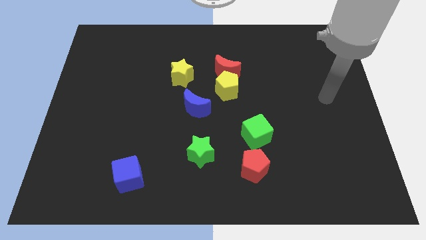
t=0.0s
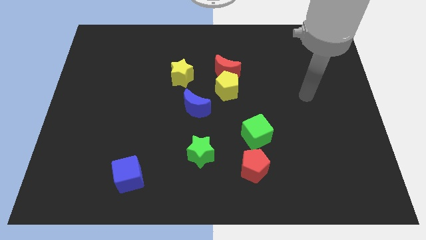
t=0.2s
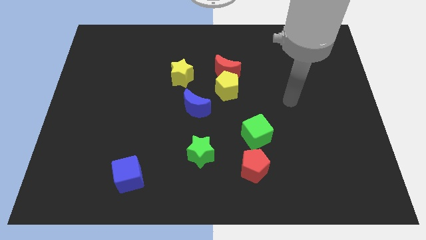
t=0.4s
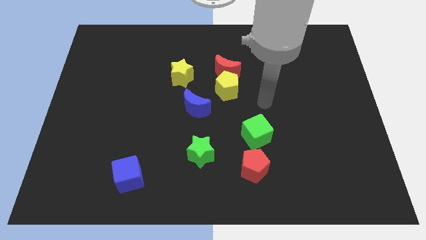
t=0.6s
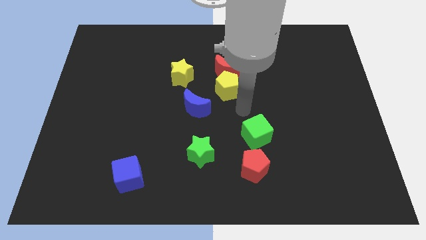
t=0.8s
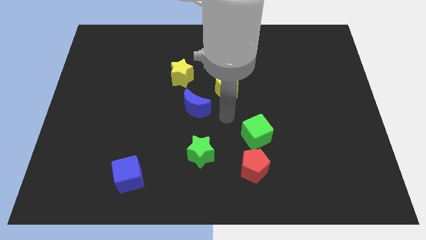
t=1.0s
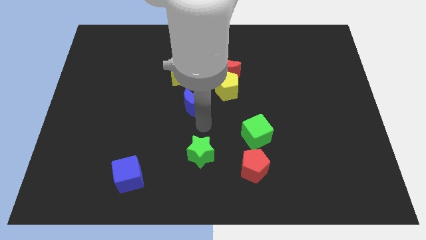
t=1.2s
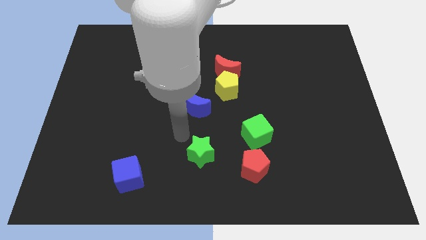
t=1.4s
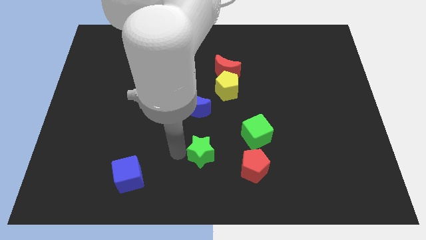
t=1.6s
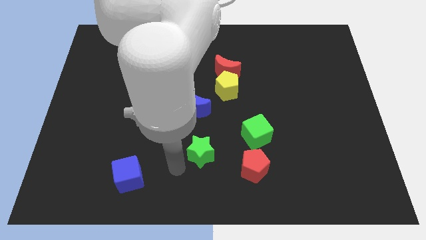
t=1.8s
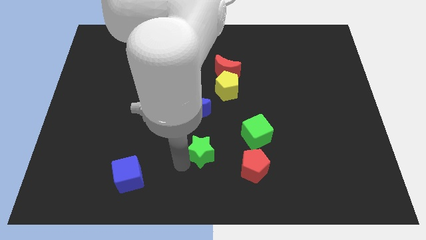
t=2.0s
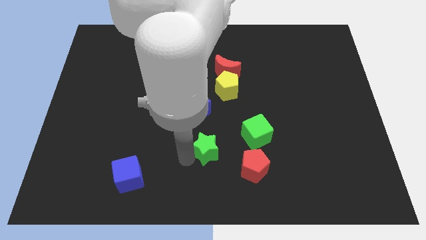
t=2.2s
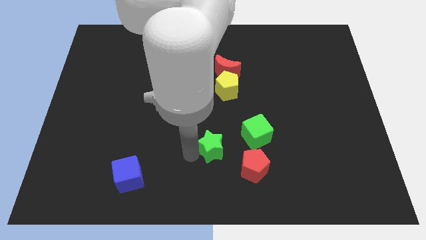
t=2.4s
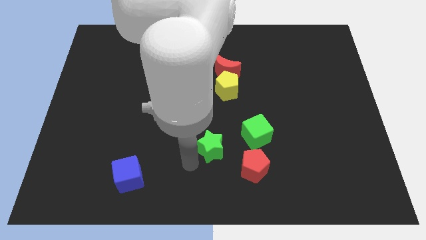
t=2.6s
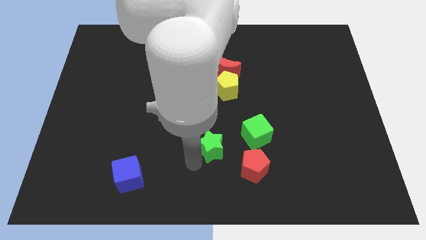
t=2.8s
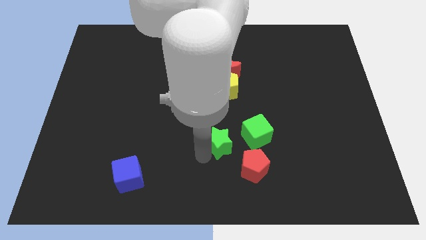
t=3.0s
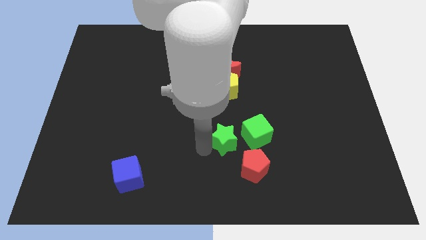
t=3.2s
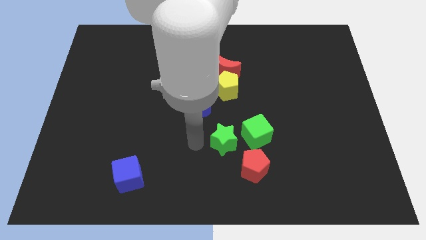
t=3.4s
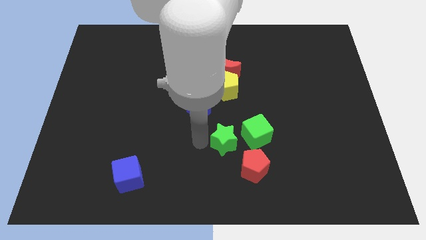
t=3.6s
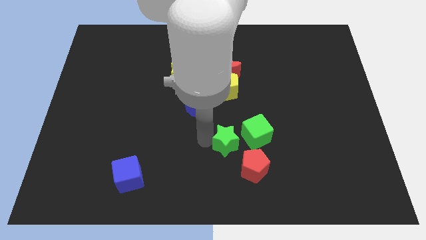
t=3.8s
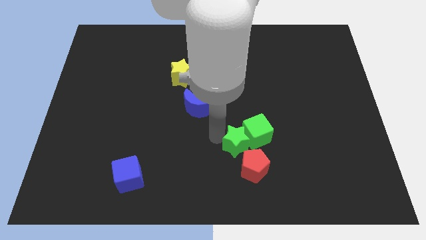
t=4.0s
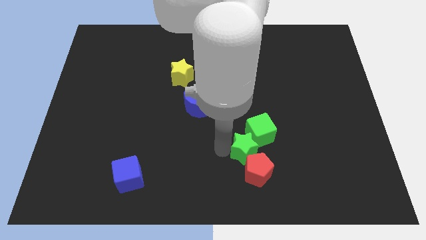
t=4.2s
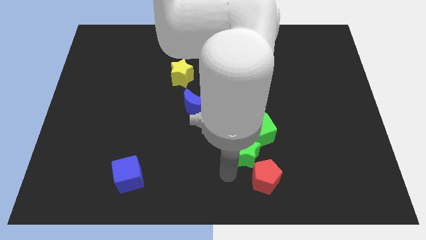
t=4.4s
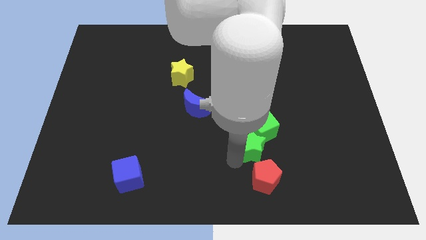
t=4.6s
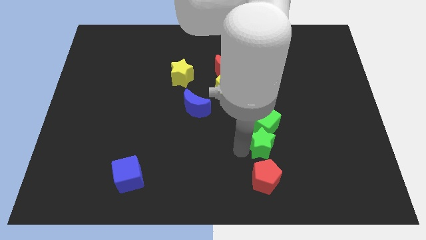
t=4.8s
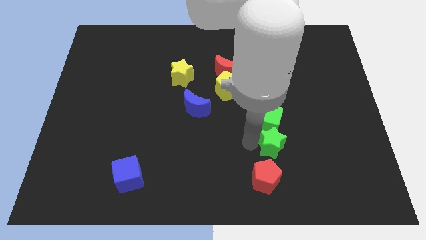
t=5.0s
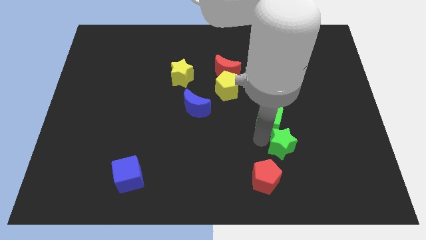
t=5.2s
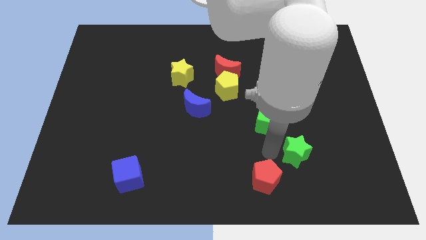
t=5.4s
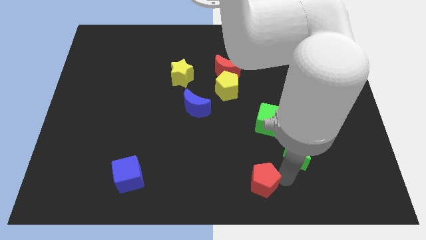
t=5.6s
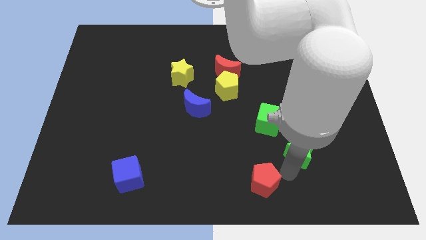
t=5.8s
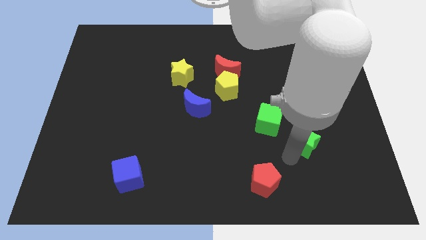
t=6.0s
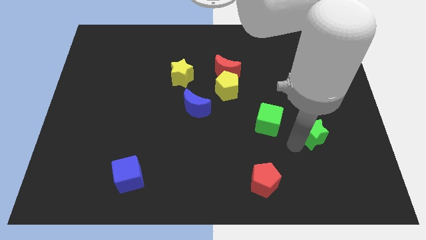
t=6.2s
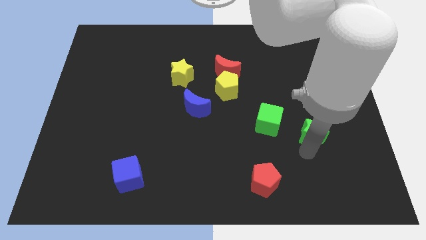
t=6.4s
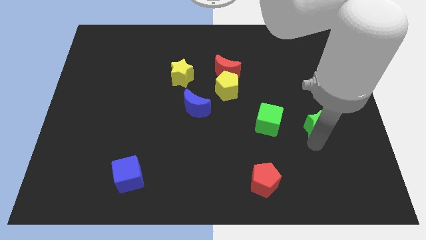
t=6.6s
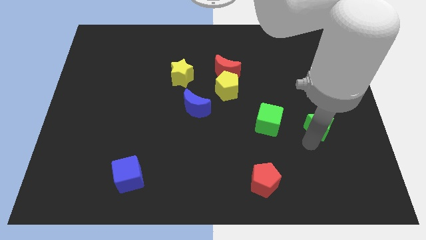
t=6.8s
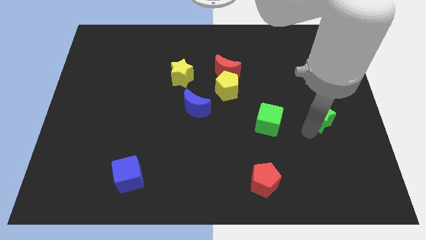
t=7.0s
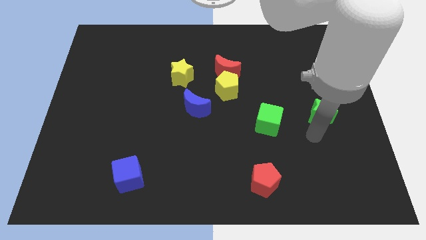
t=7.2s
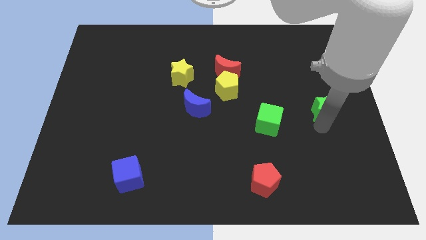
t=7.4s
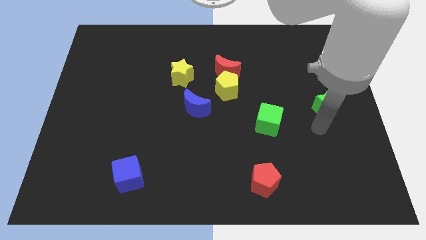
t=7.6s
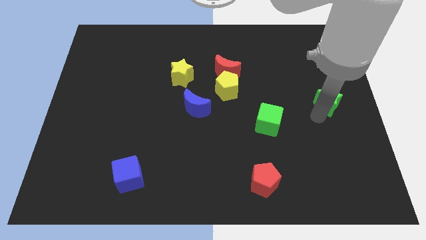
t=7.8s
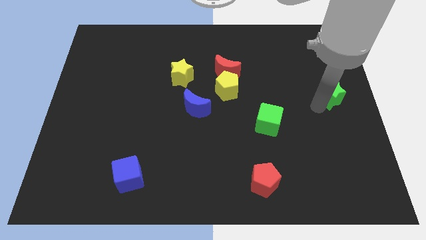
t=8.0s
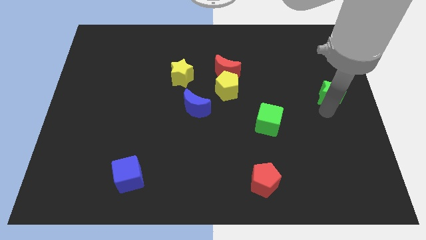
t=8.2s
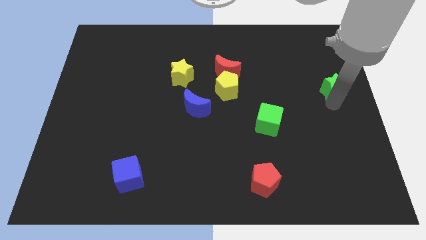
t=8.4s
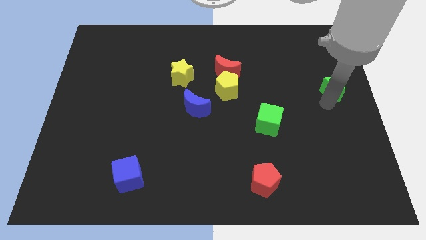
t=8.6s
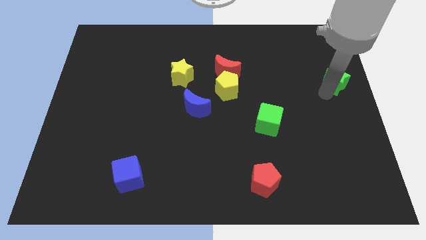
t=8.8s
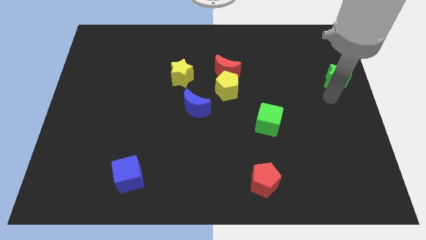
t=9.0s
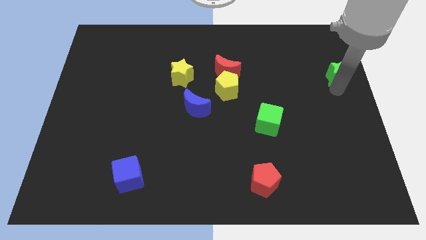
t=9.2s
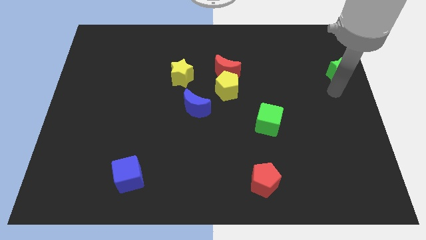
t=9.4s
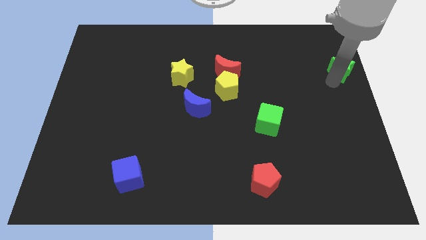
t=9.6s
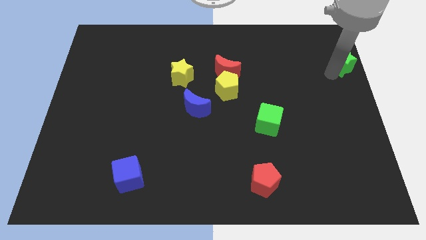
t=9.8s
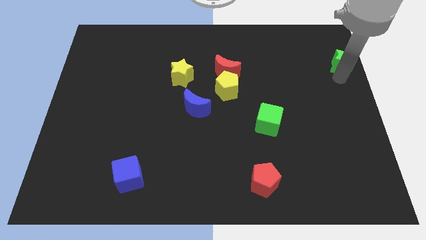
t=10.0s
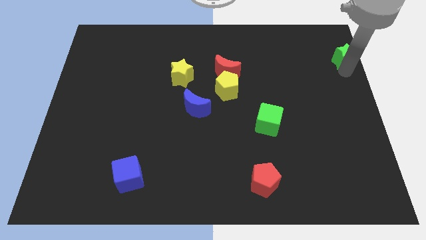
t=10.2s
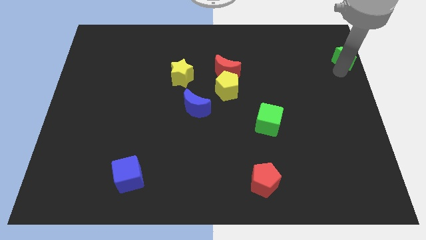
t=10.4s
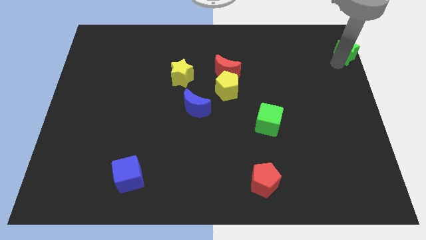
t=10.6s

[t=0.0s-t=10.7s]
push the green star to the top right

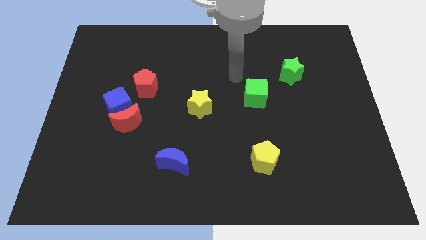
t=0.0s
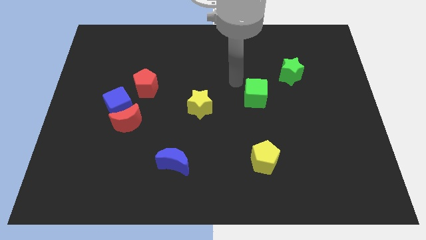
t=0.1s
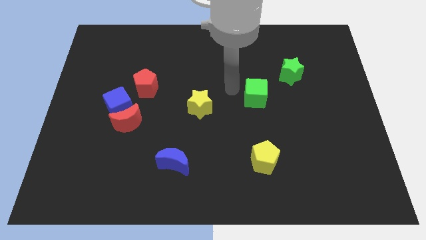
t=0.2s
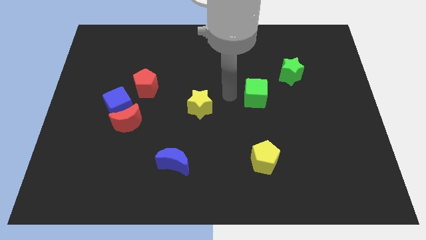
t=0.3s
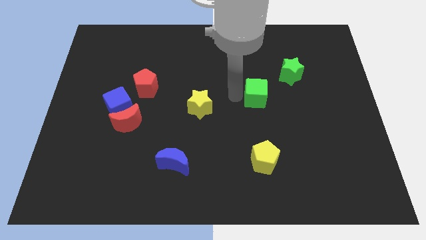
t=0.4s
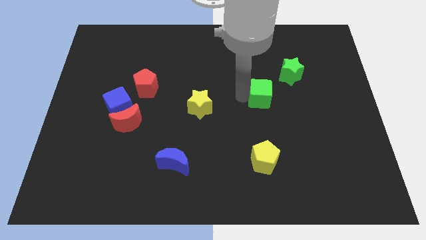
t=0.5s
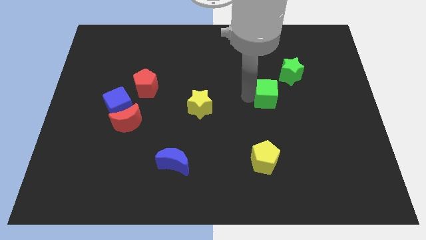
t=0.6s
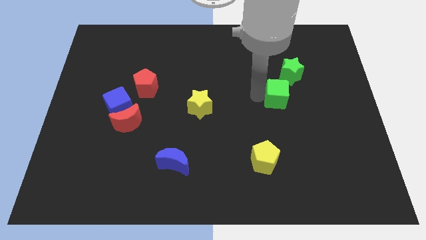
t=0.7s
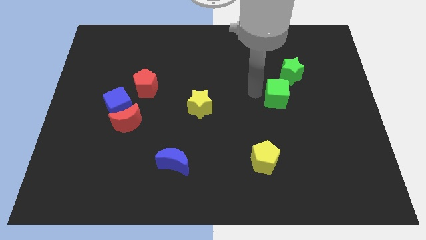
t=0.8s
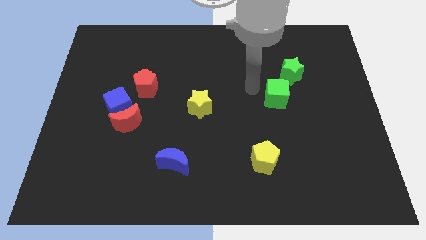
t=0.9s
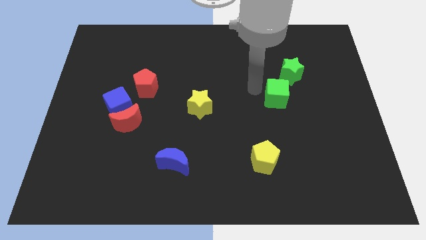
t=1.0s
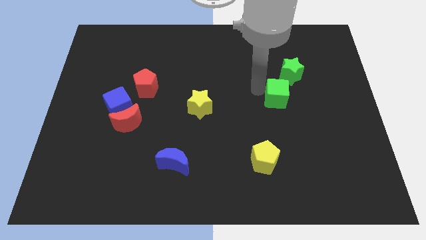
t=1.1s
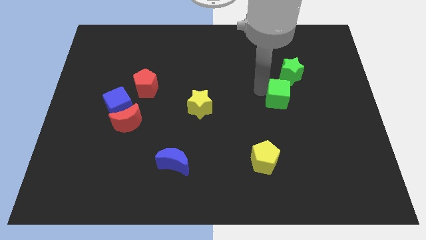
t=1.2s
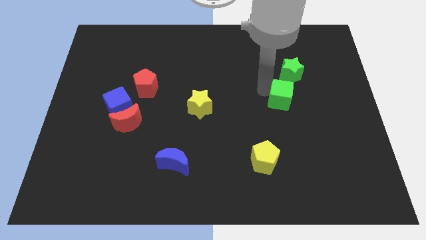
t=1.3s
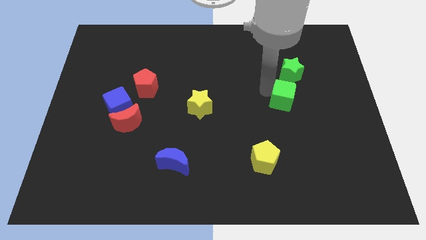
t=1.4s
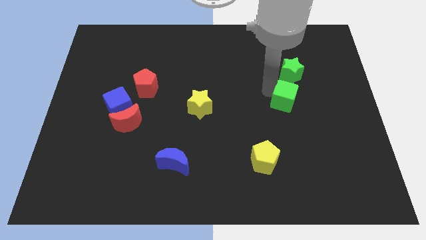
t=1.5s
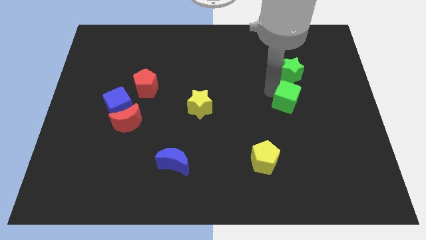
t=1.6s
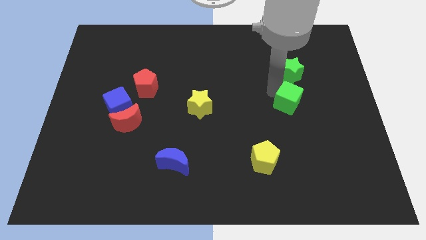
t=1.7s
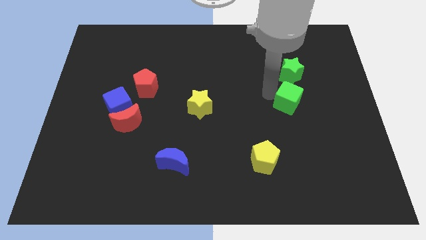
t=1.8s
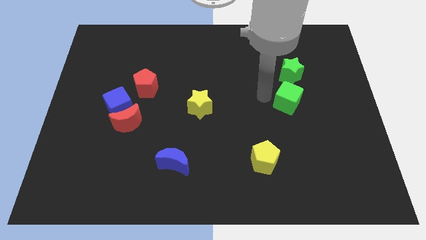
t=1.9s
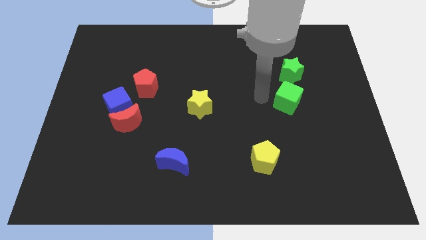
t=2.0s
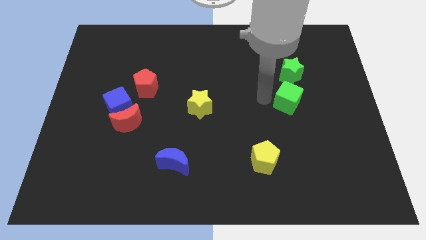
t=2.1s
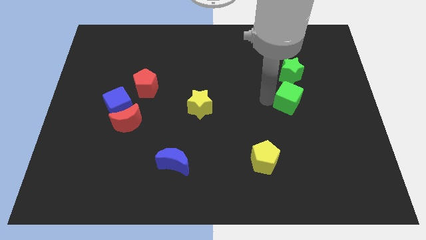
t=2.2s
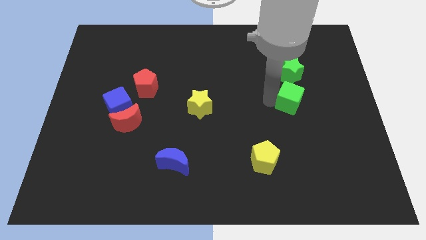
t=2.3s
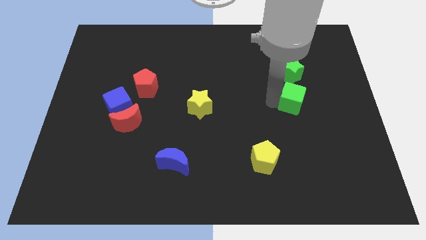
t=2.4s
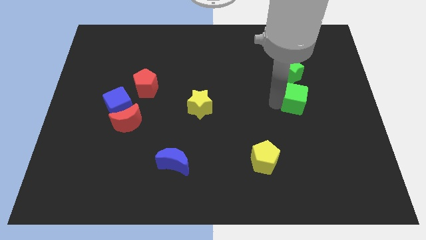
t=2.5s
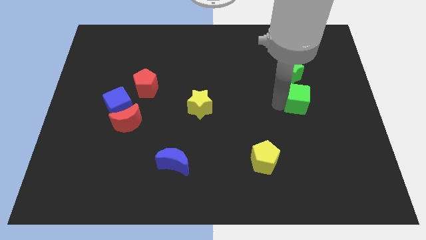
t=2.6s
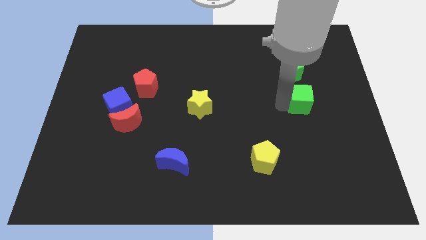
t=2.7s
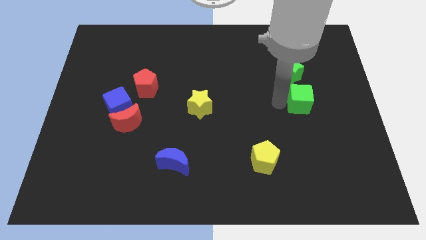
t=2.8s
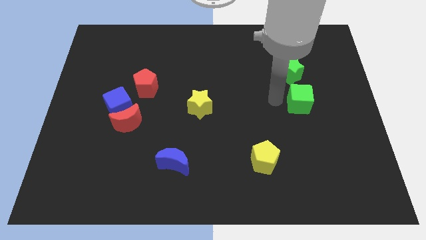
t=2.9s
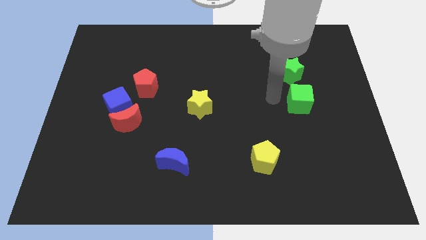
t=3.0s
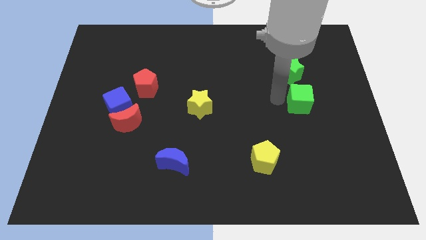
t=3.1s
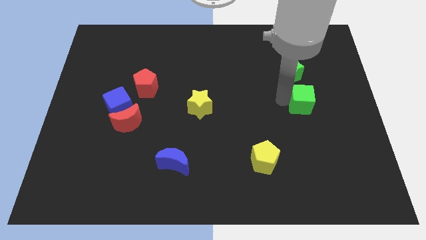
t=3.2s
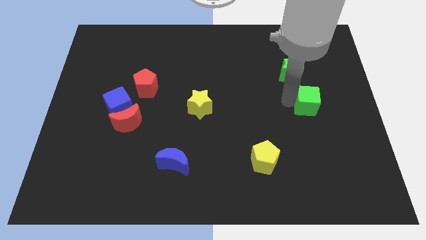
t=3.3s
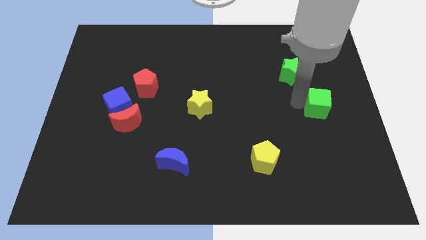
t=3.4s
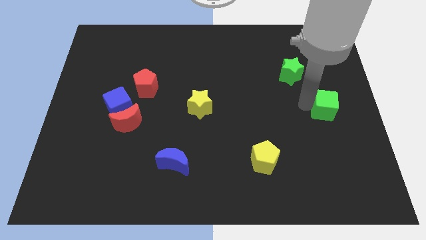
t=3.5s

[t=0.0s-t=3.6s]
move the green cube to the right side of the board
